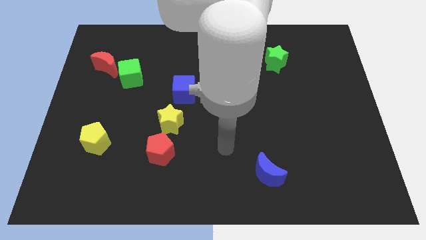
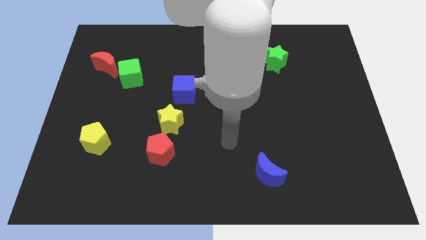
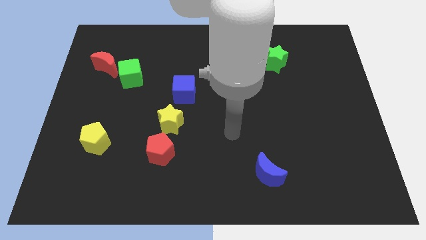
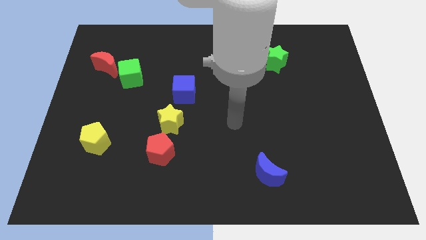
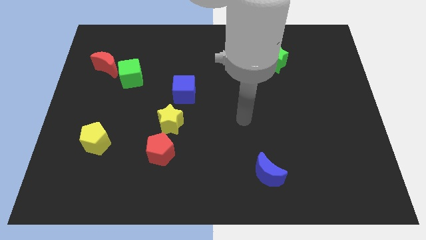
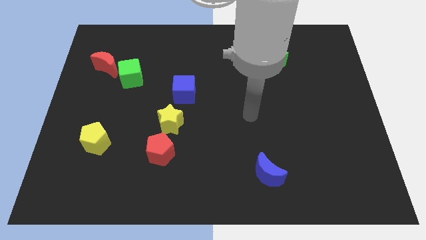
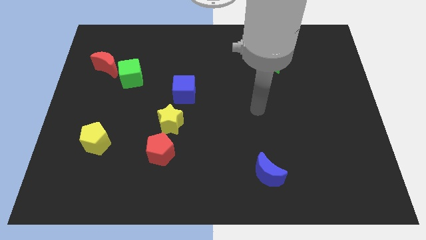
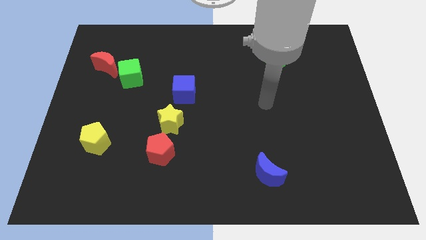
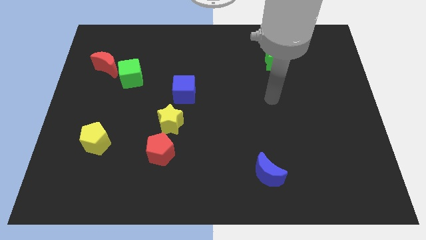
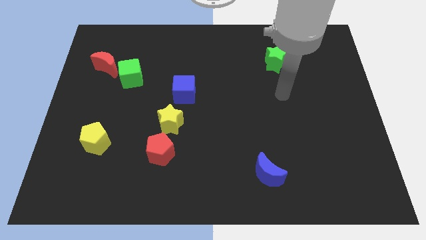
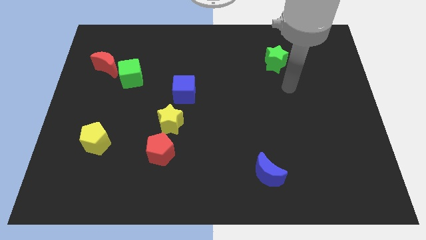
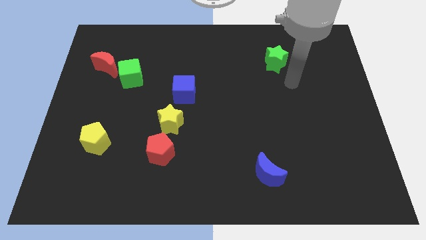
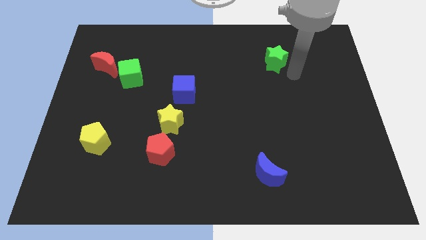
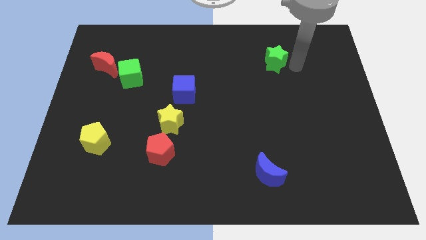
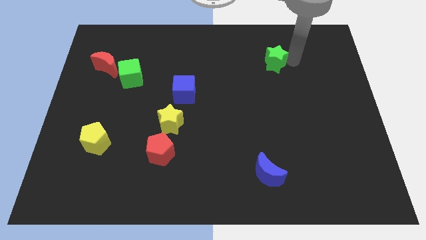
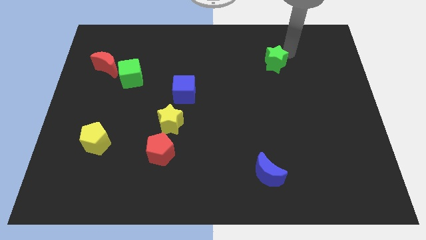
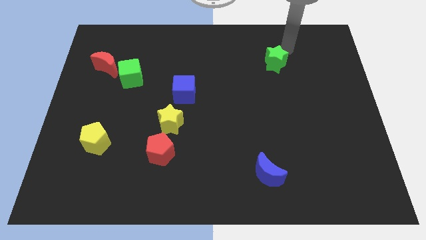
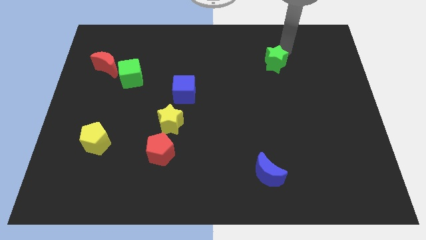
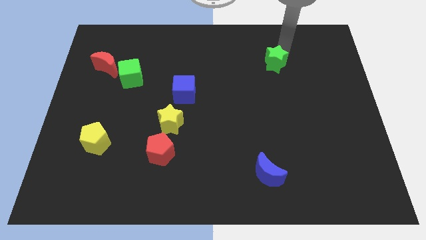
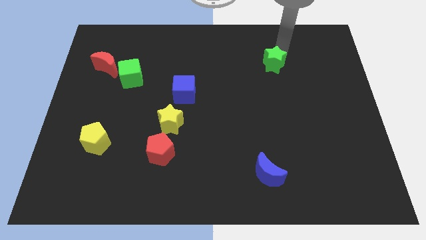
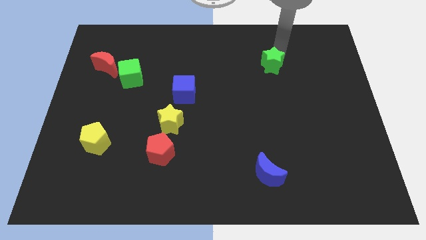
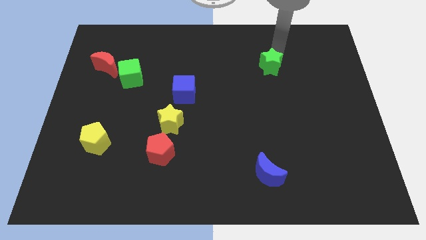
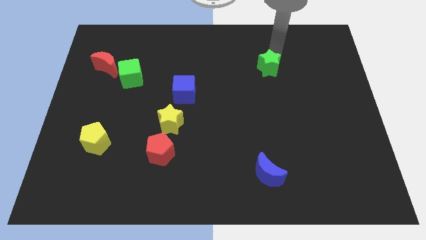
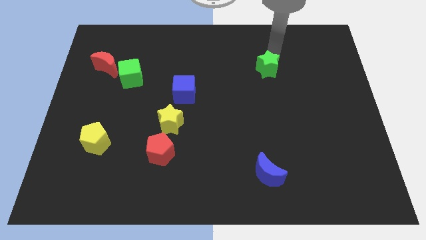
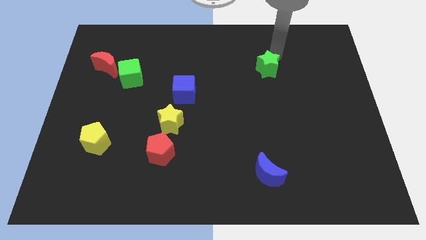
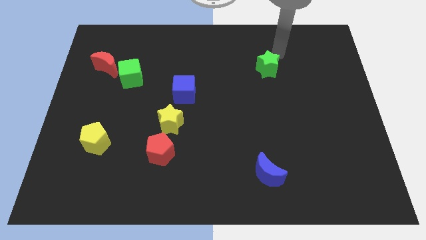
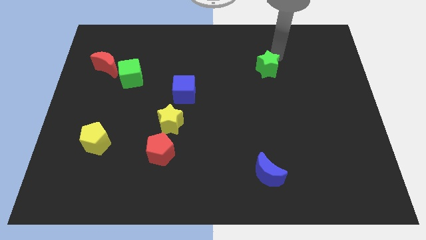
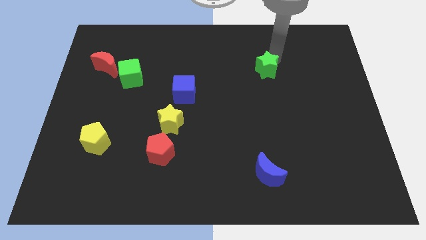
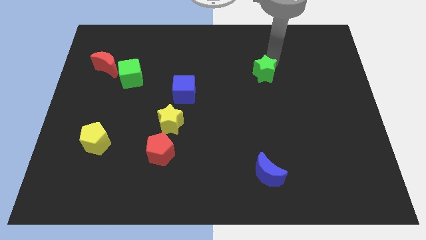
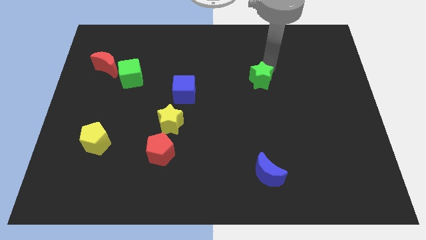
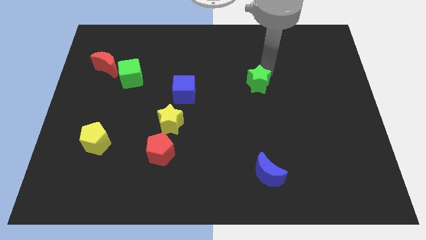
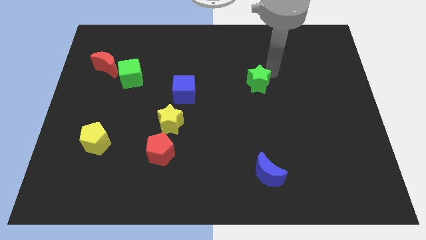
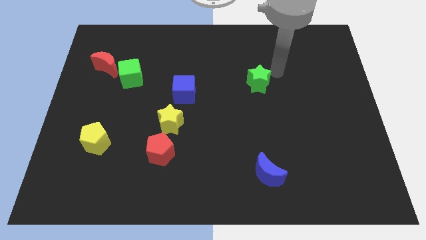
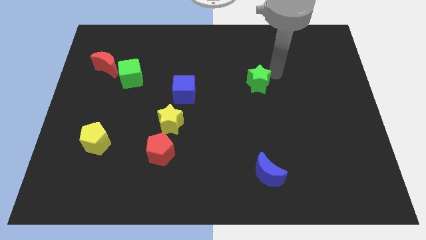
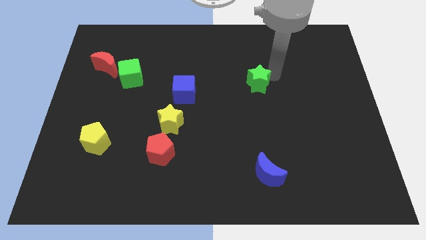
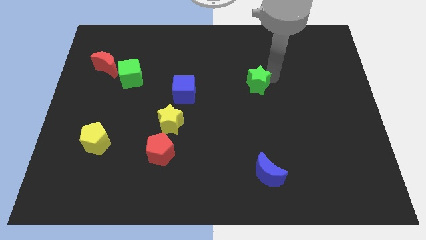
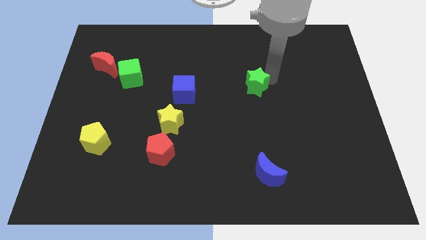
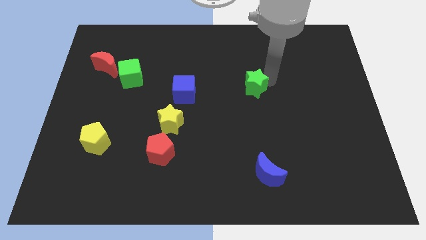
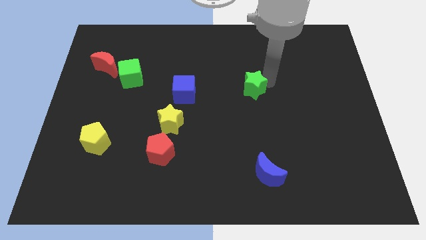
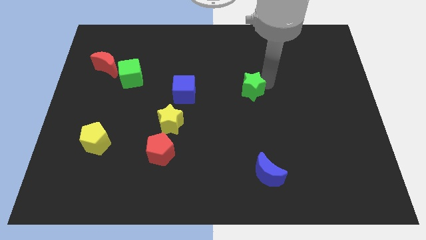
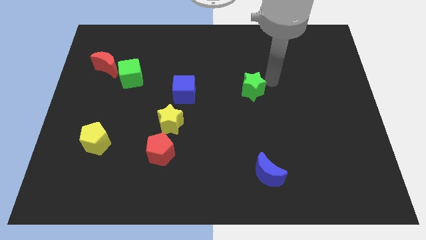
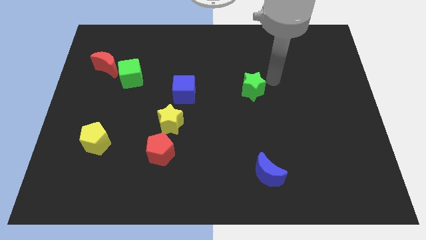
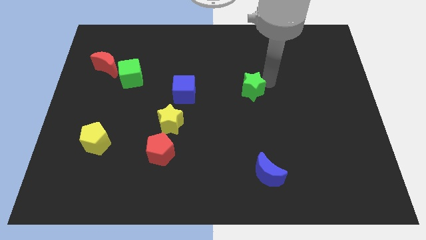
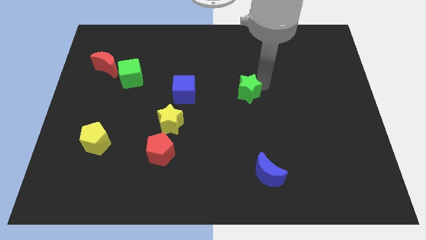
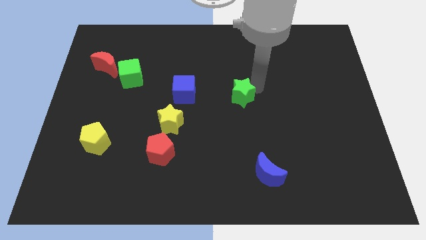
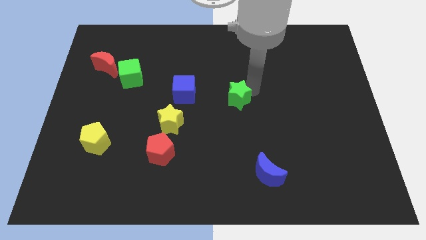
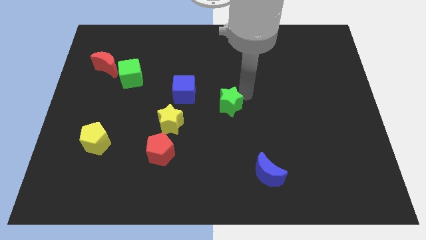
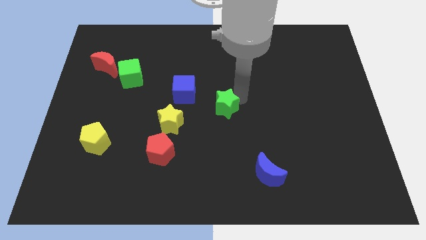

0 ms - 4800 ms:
push the green star down and then left

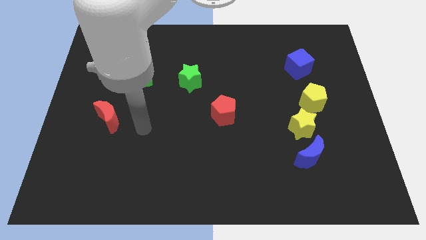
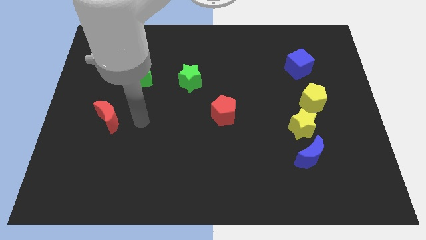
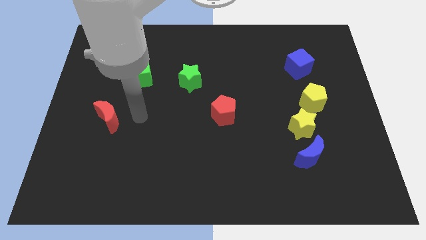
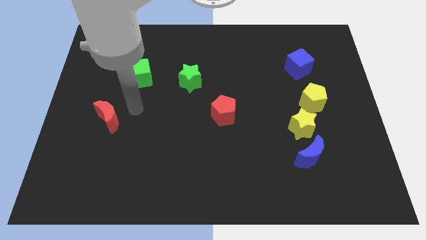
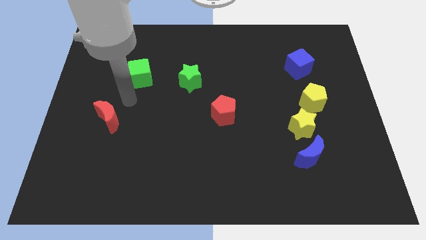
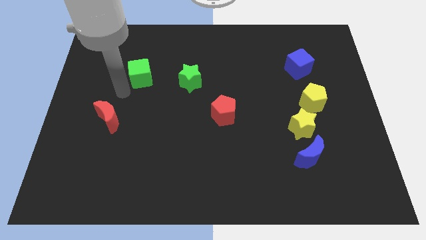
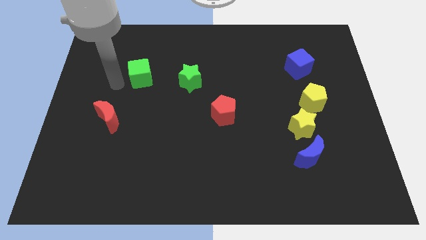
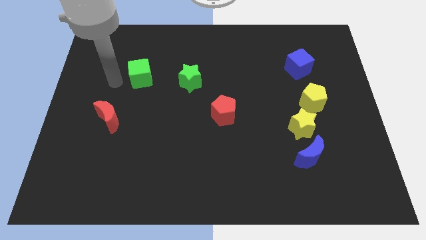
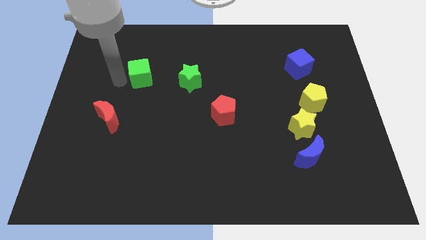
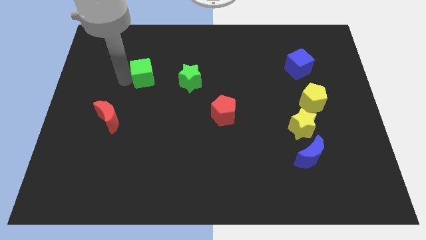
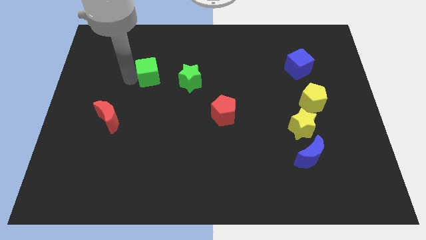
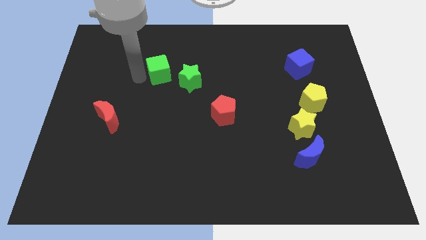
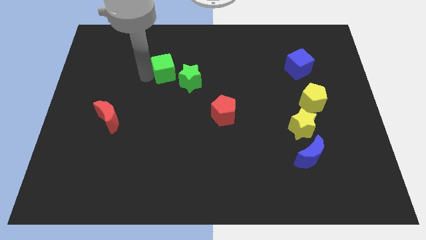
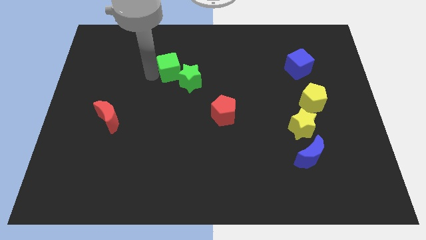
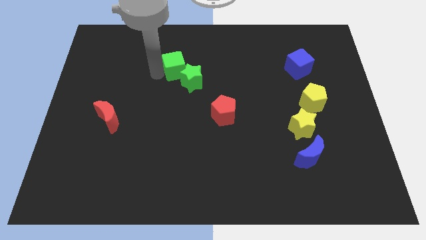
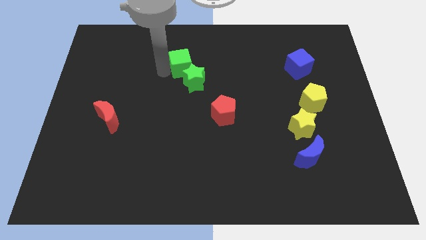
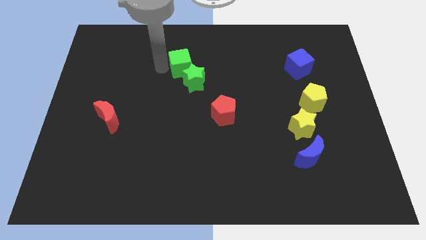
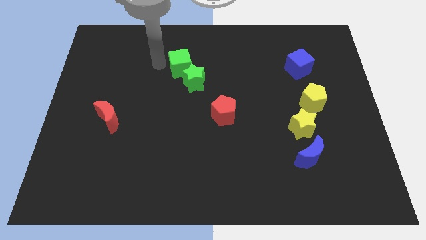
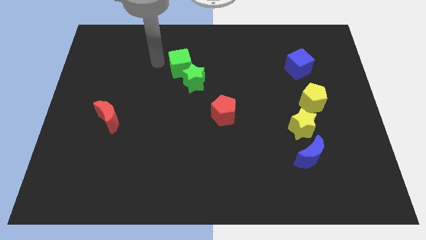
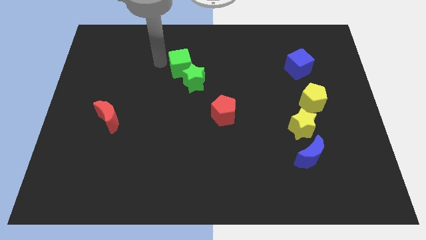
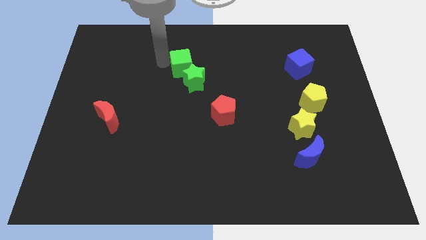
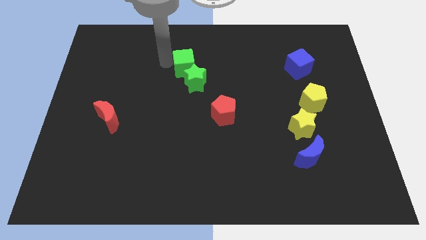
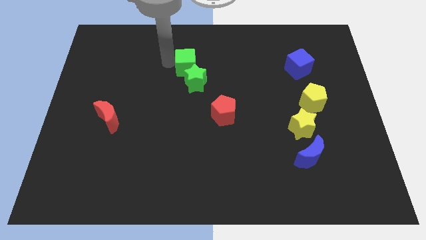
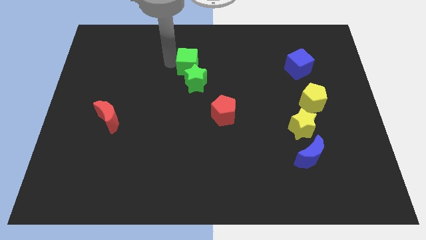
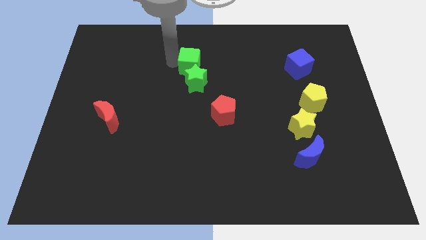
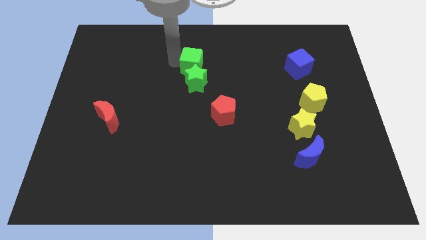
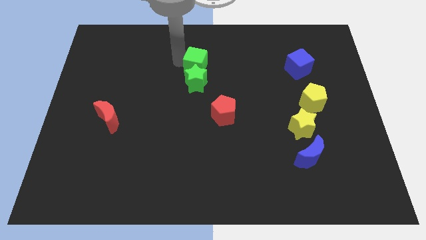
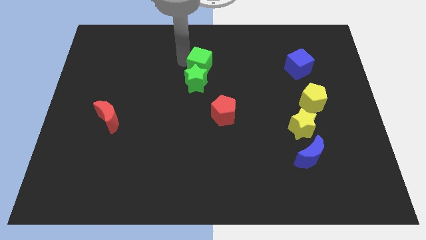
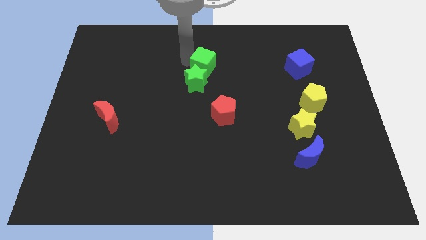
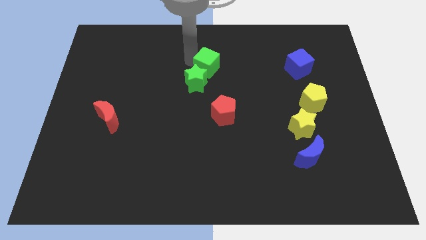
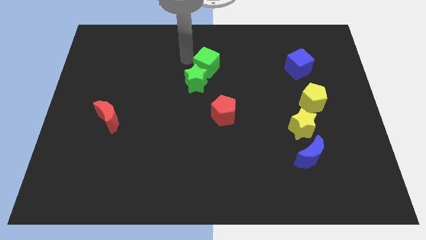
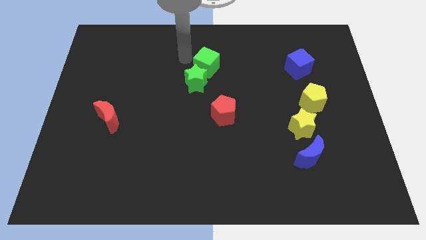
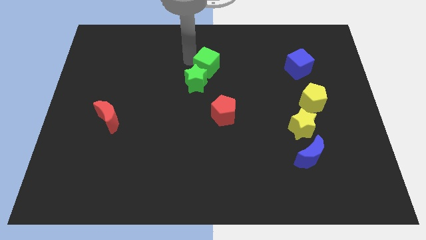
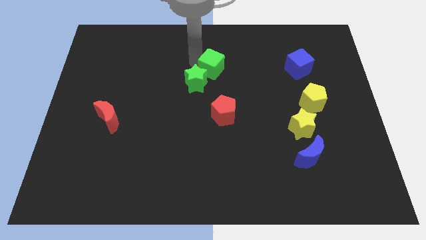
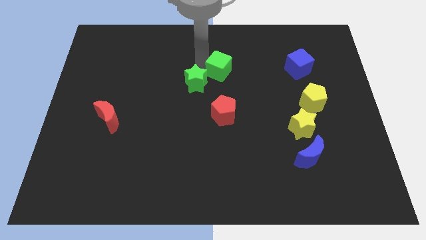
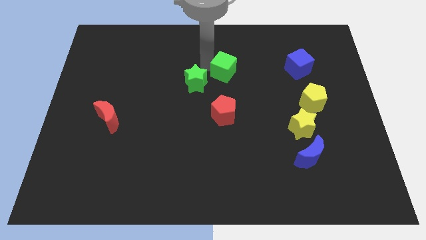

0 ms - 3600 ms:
push the green cube right
